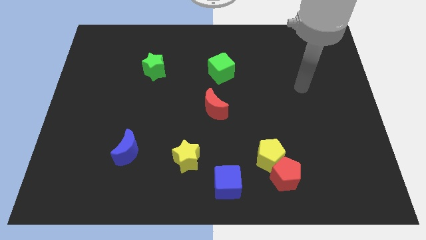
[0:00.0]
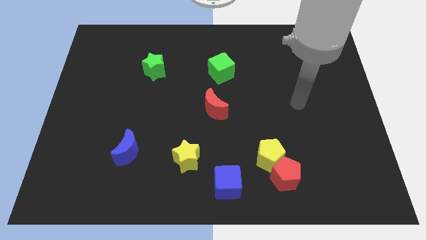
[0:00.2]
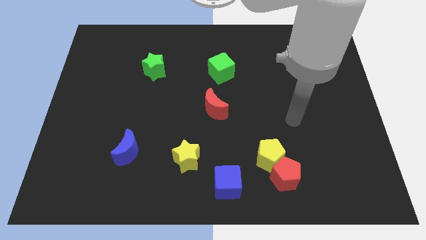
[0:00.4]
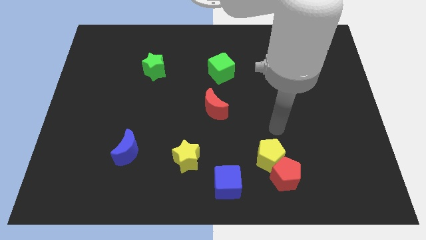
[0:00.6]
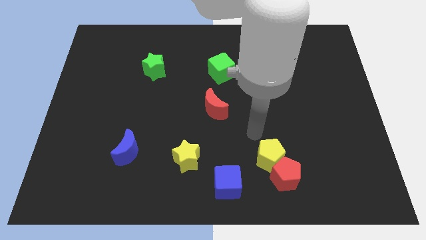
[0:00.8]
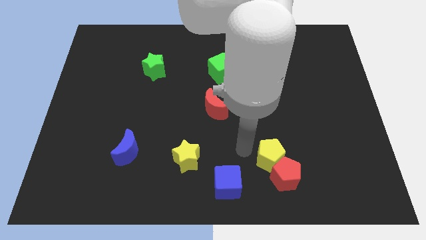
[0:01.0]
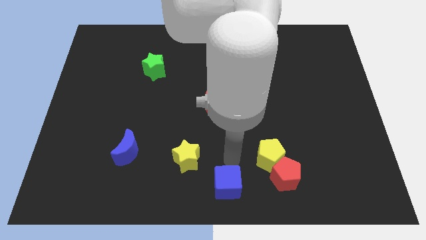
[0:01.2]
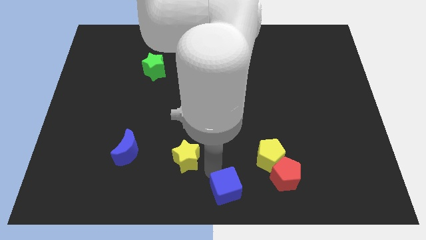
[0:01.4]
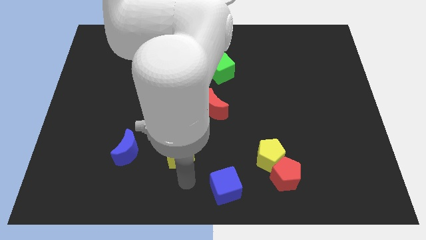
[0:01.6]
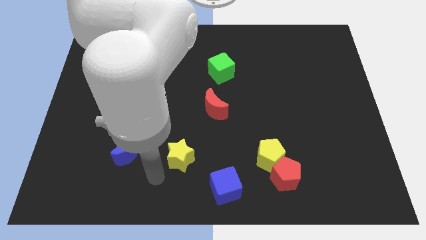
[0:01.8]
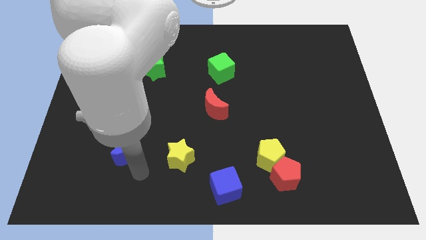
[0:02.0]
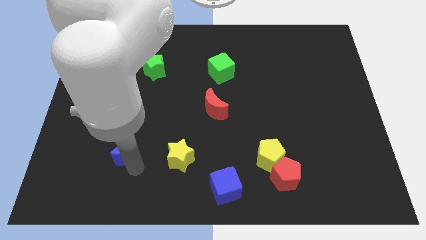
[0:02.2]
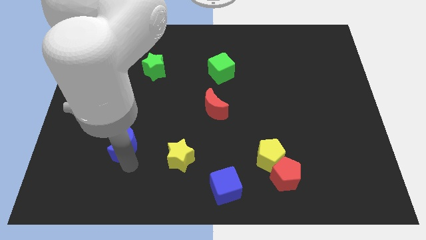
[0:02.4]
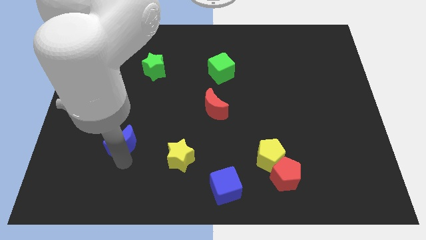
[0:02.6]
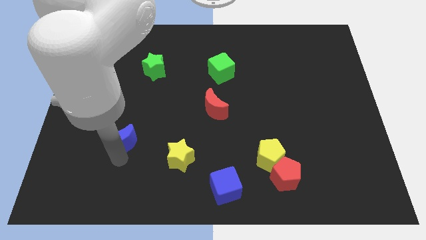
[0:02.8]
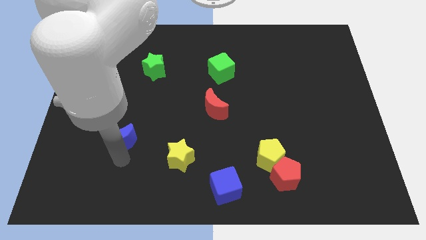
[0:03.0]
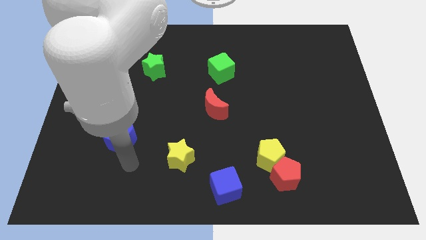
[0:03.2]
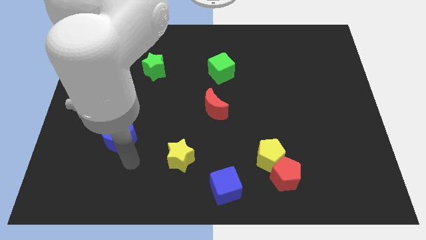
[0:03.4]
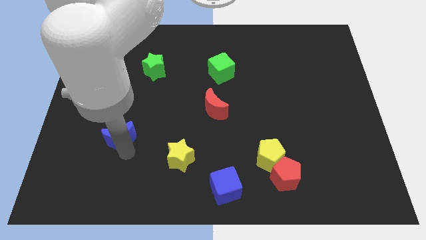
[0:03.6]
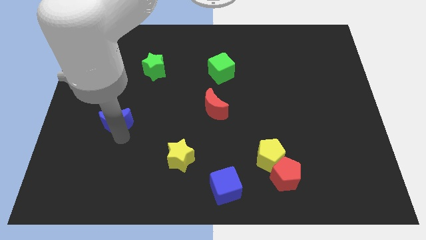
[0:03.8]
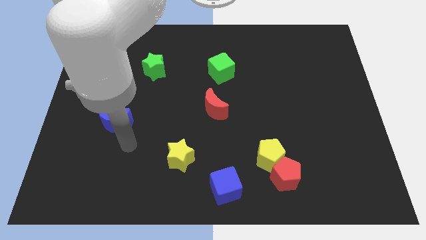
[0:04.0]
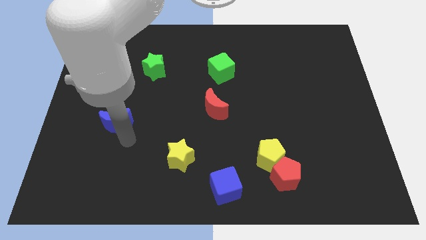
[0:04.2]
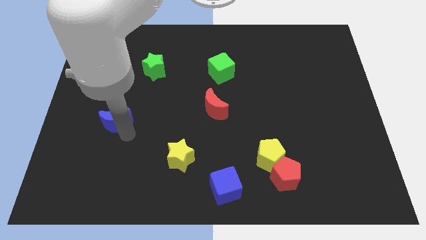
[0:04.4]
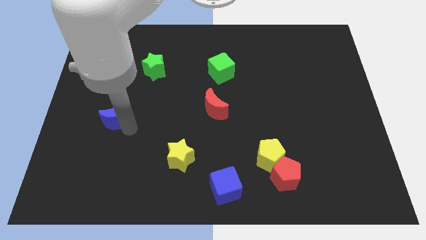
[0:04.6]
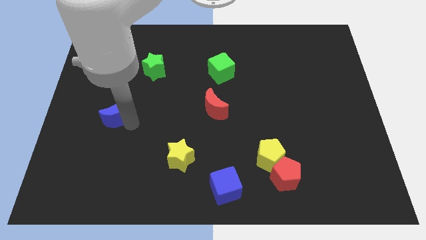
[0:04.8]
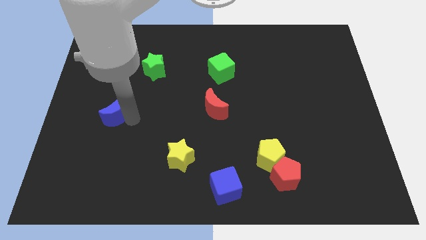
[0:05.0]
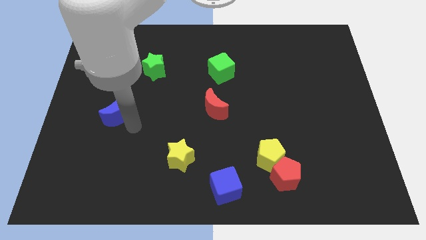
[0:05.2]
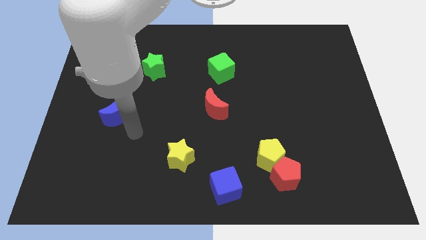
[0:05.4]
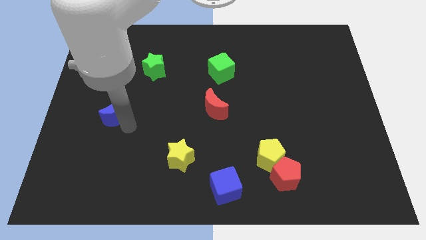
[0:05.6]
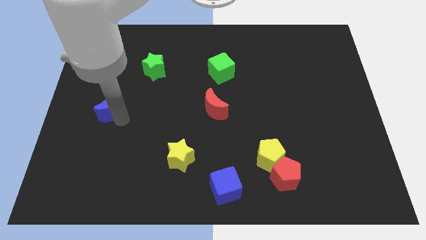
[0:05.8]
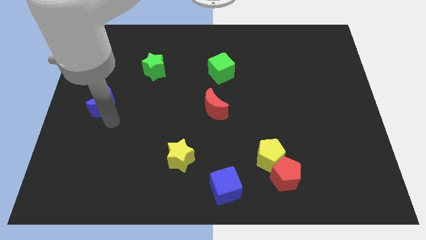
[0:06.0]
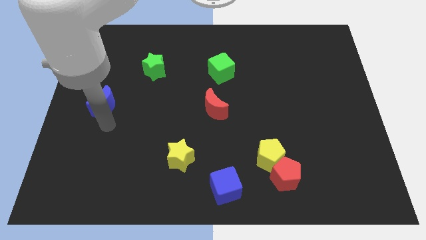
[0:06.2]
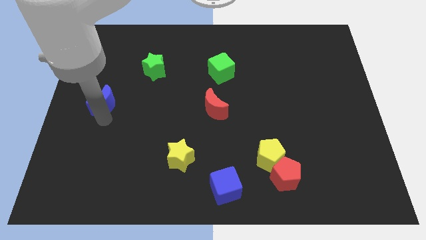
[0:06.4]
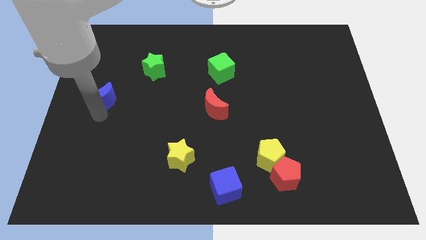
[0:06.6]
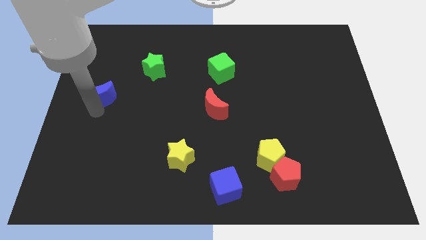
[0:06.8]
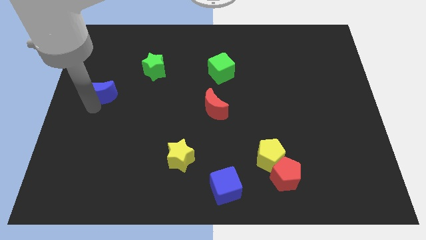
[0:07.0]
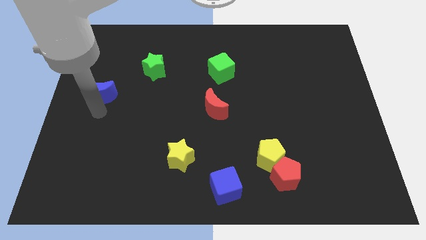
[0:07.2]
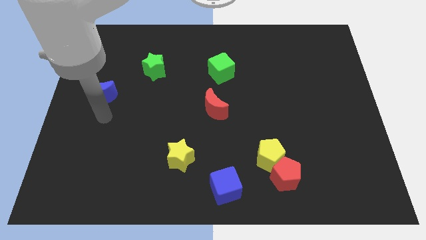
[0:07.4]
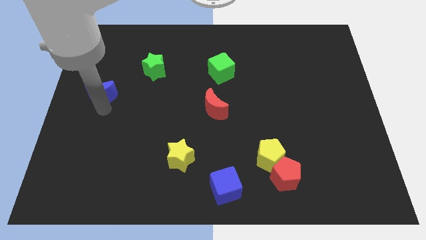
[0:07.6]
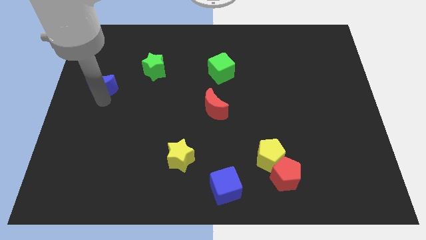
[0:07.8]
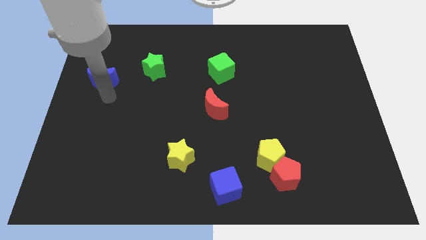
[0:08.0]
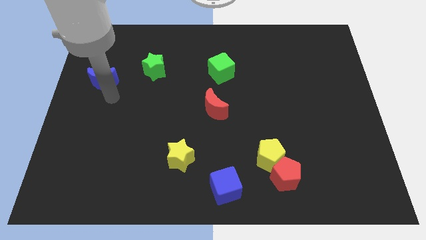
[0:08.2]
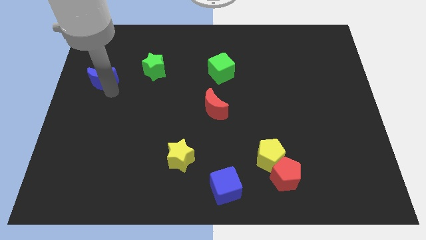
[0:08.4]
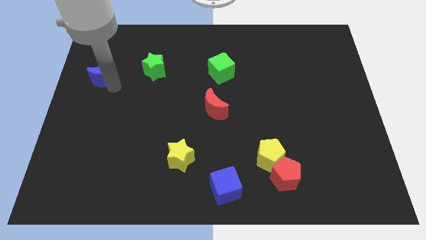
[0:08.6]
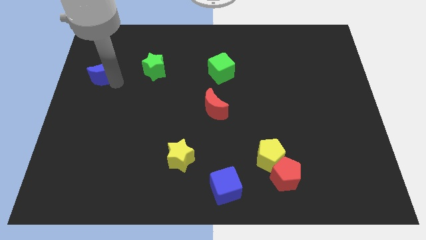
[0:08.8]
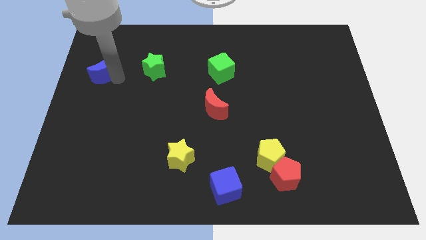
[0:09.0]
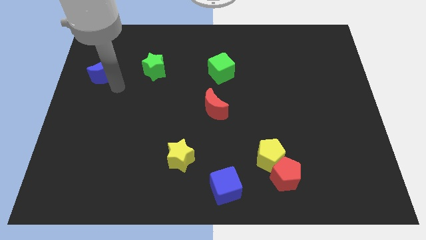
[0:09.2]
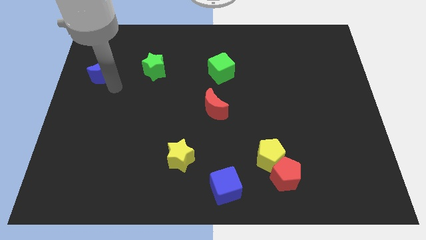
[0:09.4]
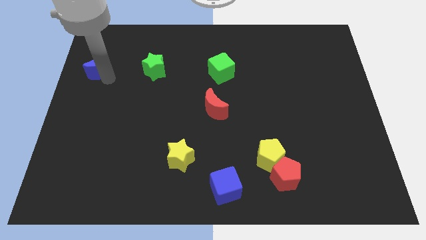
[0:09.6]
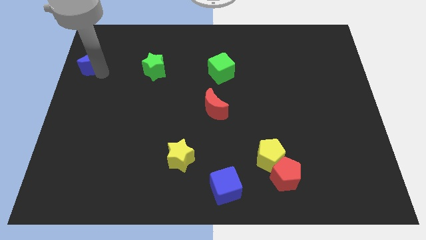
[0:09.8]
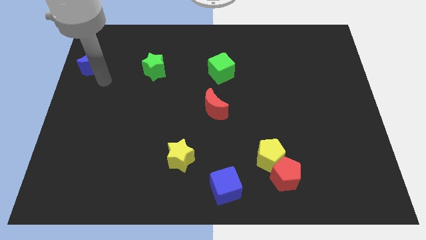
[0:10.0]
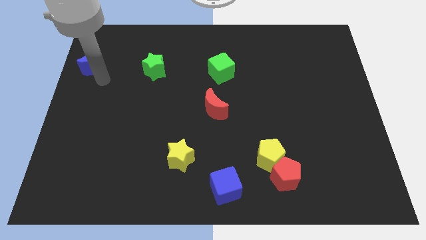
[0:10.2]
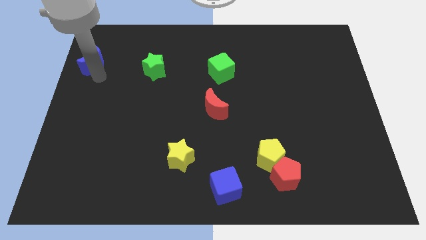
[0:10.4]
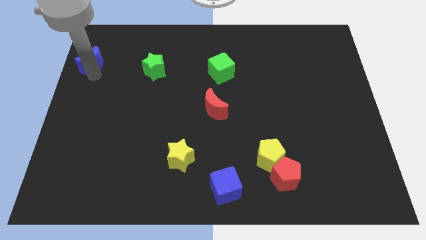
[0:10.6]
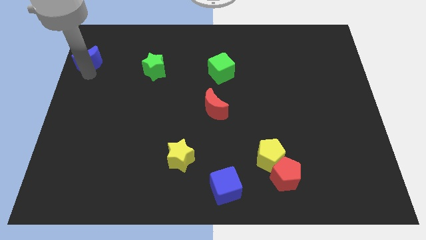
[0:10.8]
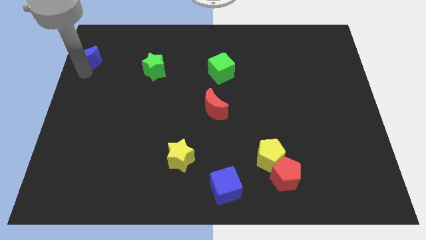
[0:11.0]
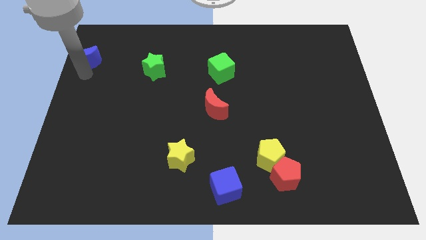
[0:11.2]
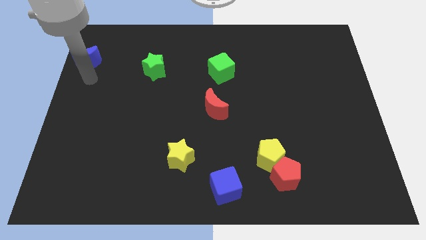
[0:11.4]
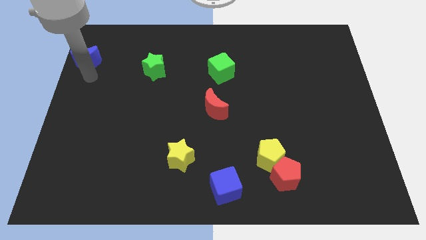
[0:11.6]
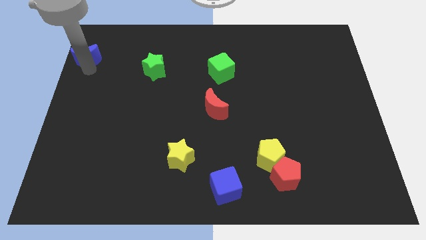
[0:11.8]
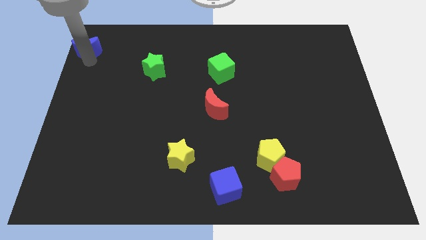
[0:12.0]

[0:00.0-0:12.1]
push the blue moon to the upper left corner

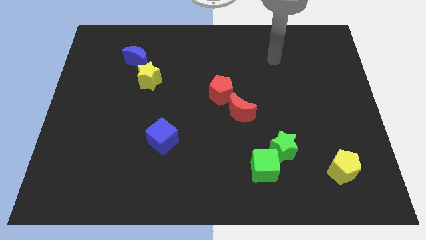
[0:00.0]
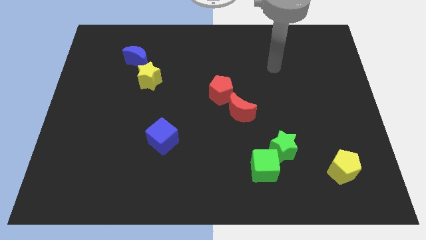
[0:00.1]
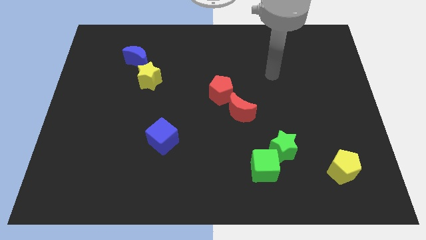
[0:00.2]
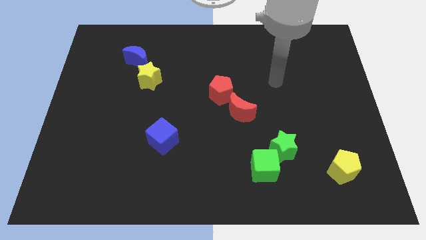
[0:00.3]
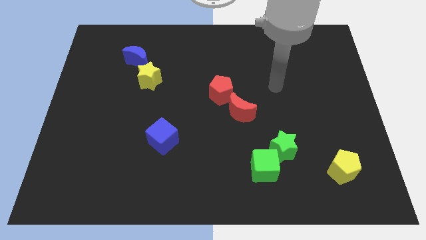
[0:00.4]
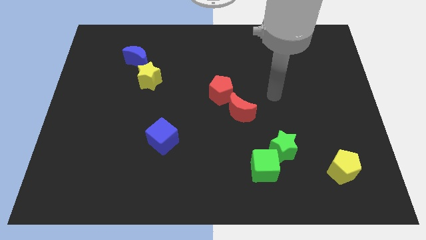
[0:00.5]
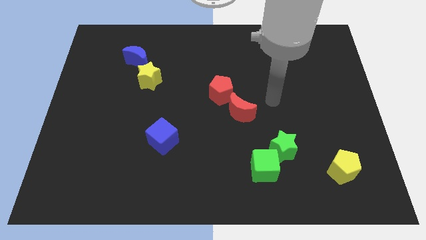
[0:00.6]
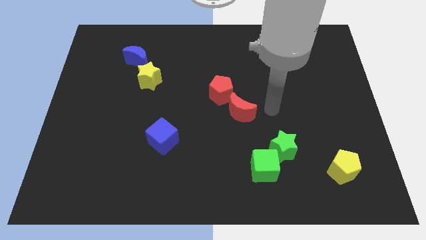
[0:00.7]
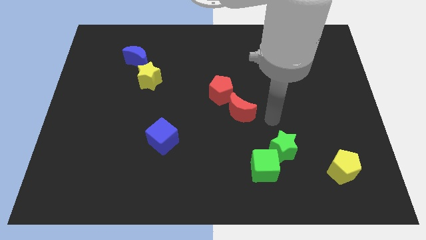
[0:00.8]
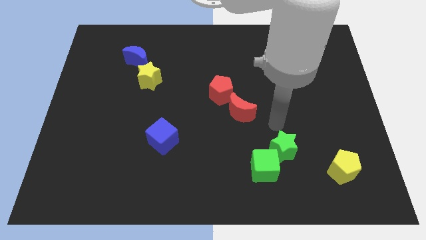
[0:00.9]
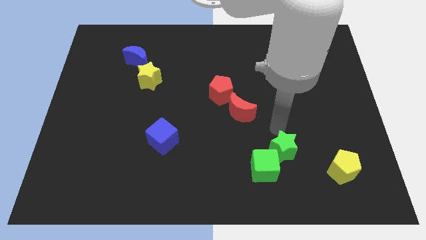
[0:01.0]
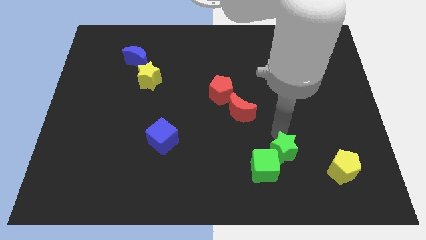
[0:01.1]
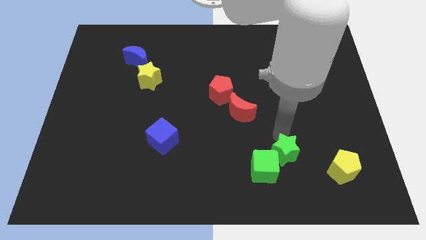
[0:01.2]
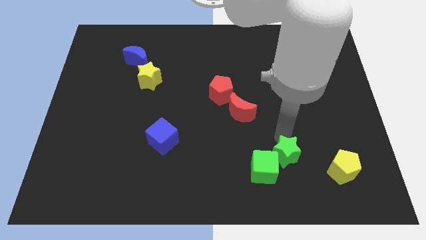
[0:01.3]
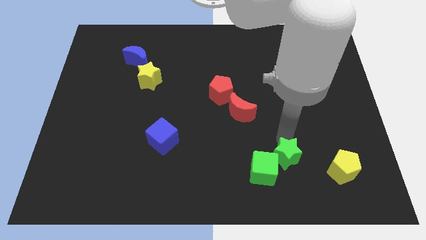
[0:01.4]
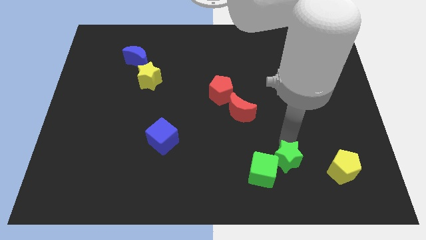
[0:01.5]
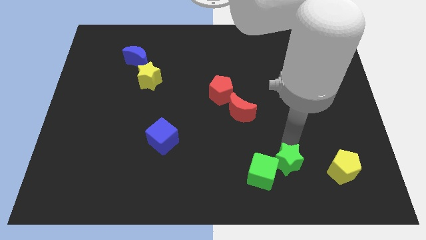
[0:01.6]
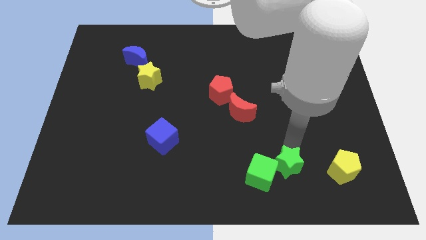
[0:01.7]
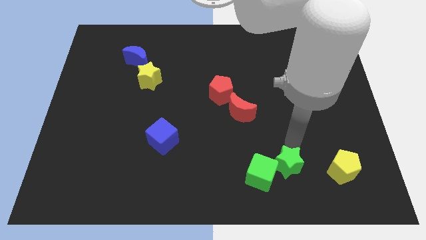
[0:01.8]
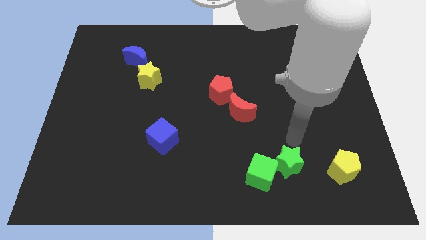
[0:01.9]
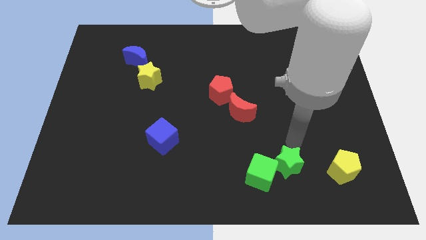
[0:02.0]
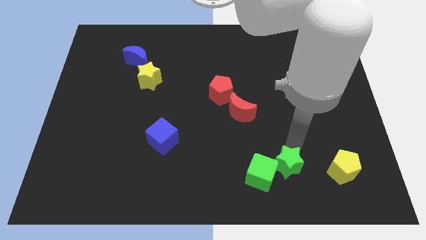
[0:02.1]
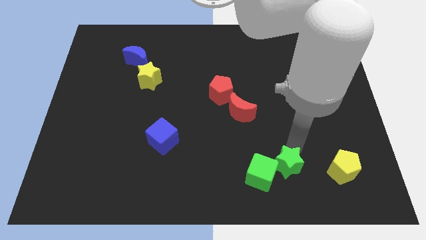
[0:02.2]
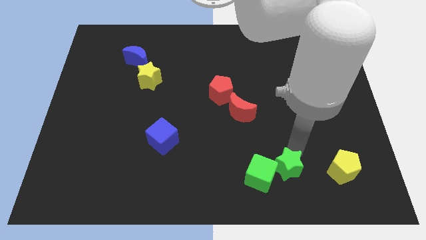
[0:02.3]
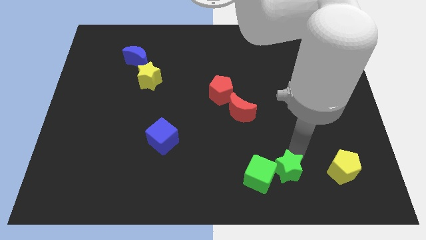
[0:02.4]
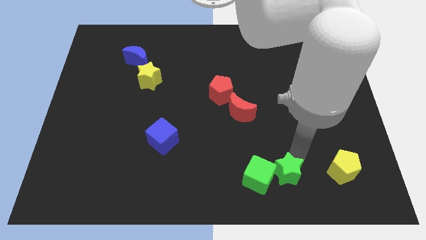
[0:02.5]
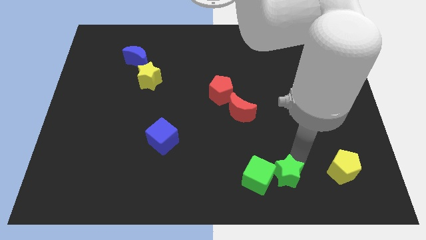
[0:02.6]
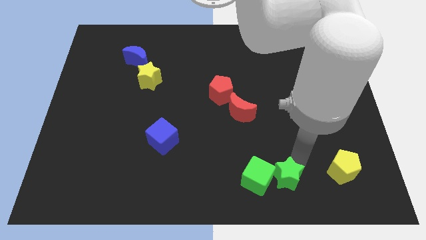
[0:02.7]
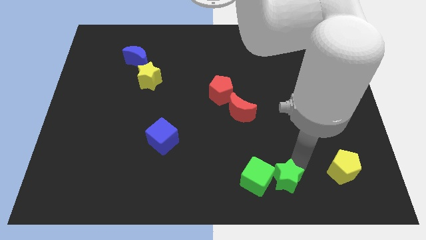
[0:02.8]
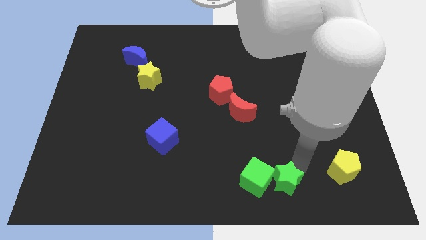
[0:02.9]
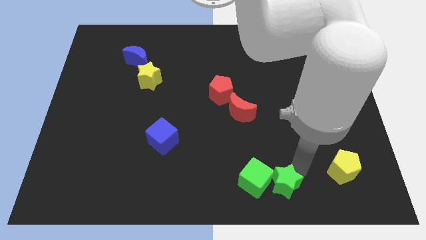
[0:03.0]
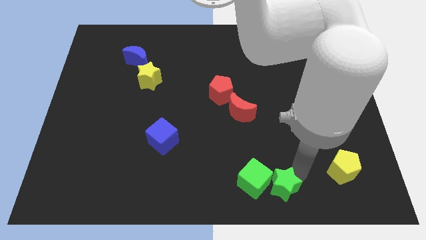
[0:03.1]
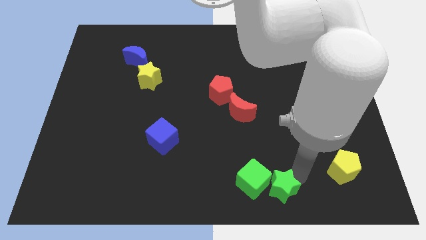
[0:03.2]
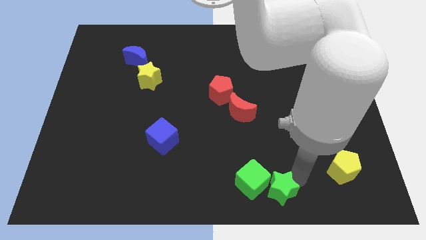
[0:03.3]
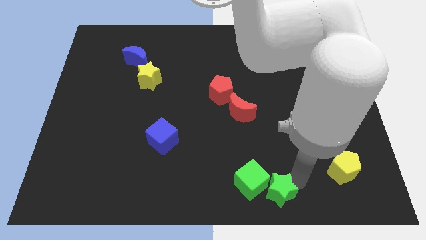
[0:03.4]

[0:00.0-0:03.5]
move the green star to the bottom
